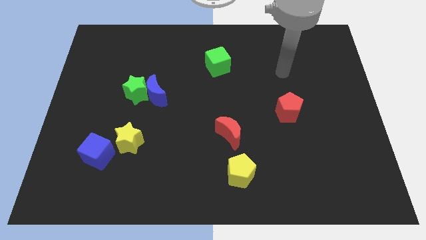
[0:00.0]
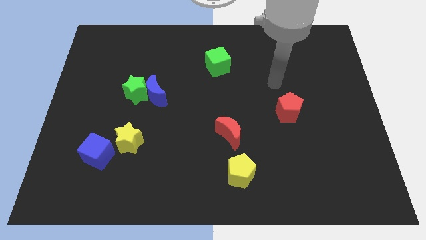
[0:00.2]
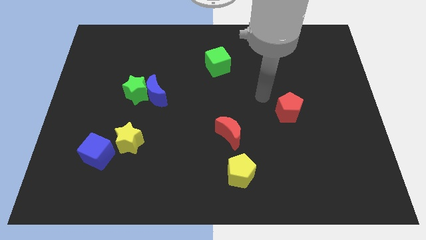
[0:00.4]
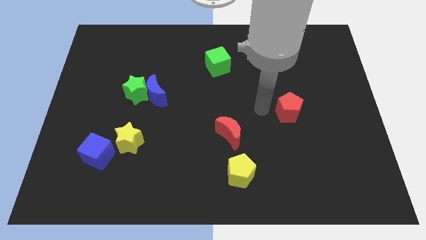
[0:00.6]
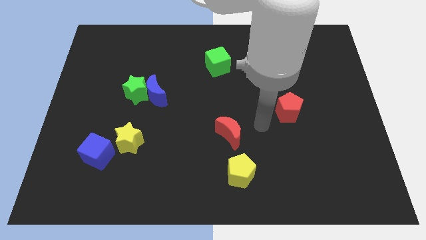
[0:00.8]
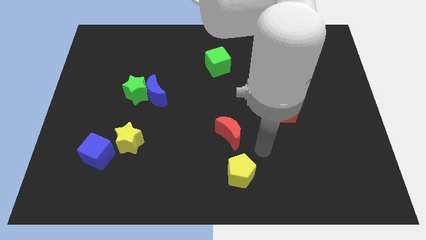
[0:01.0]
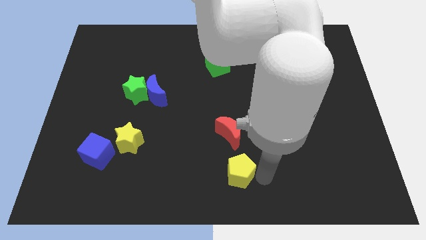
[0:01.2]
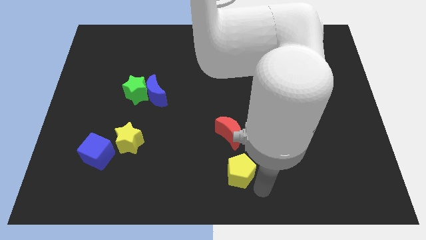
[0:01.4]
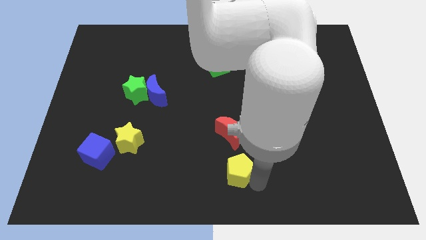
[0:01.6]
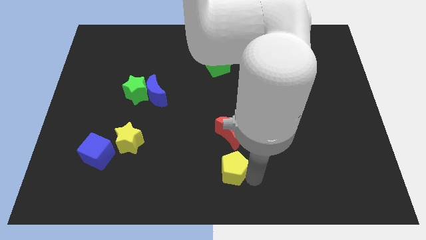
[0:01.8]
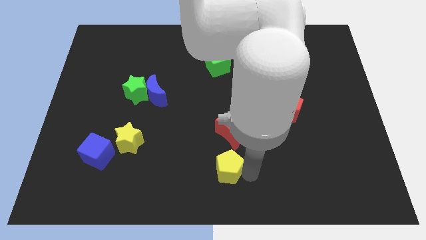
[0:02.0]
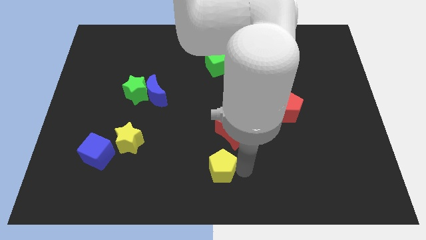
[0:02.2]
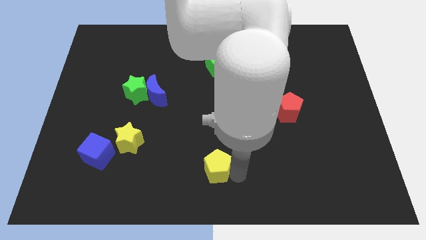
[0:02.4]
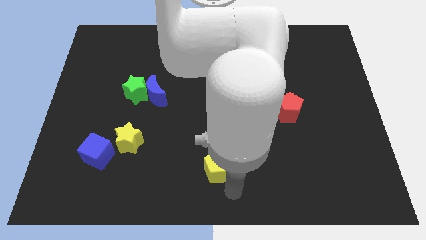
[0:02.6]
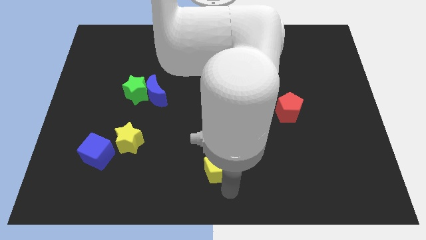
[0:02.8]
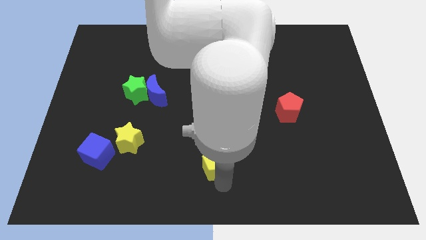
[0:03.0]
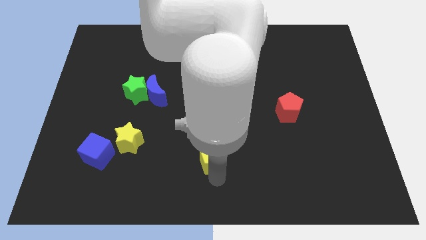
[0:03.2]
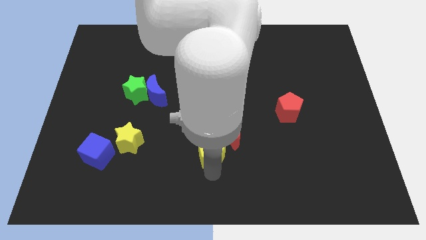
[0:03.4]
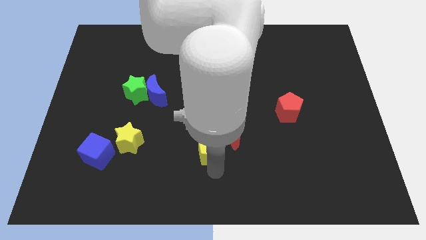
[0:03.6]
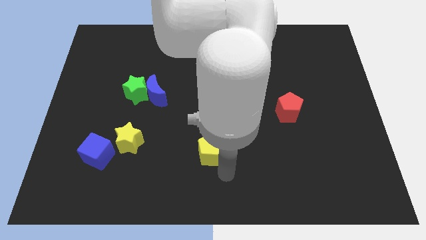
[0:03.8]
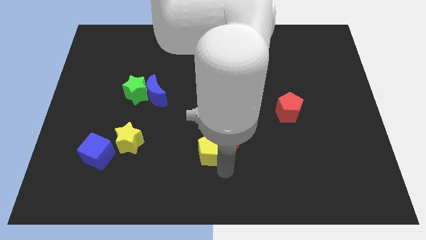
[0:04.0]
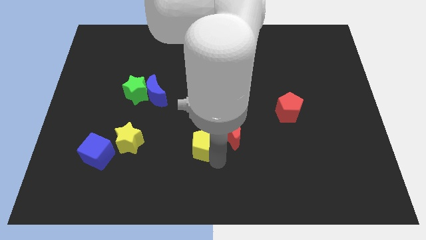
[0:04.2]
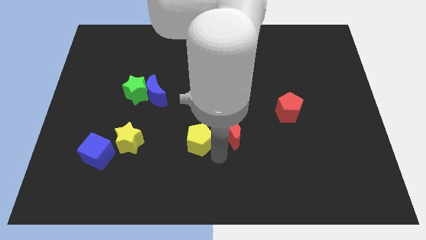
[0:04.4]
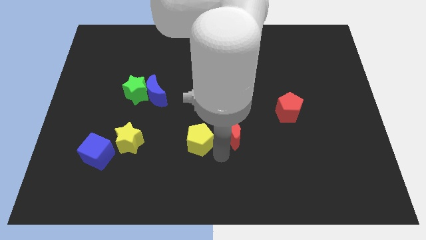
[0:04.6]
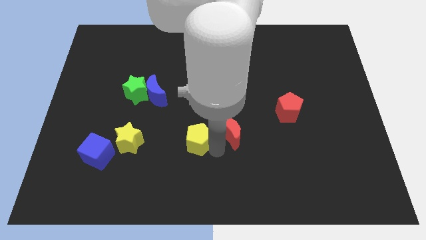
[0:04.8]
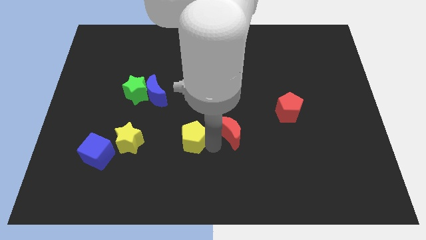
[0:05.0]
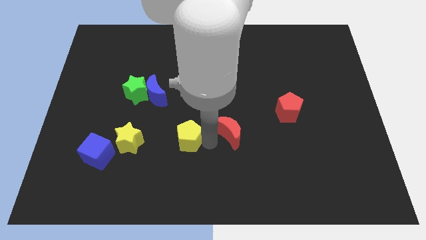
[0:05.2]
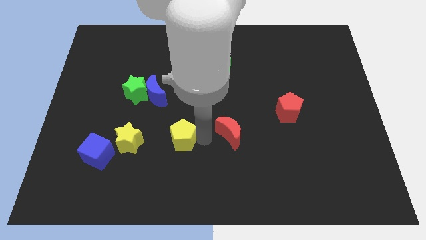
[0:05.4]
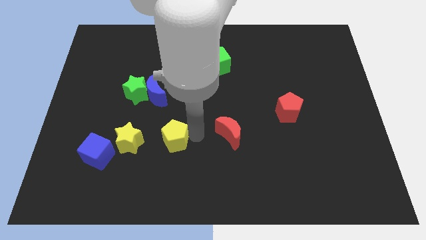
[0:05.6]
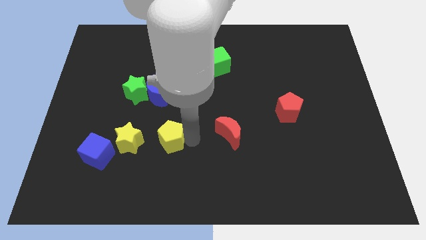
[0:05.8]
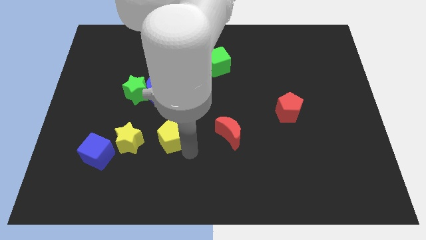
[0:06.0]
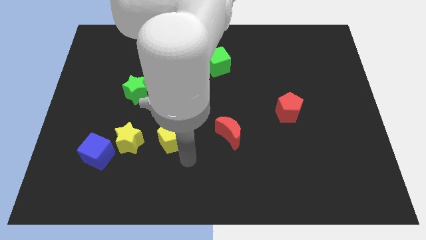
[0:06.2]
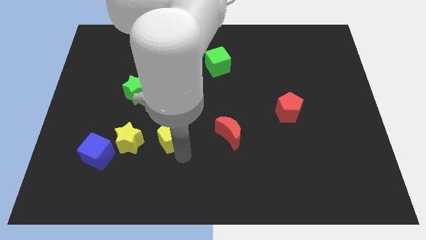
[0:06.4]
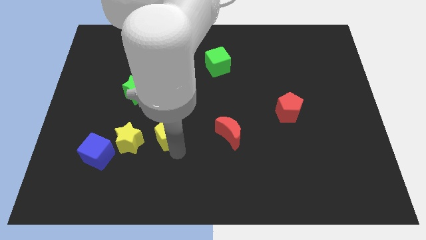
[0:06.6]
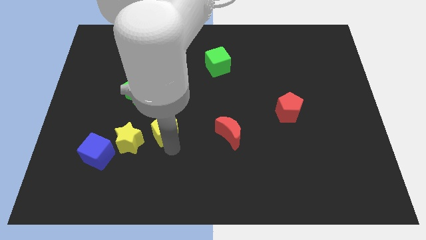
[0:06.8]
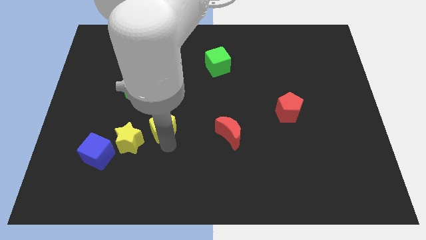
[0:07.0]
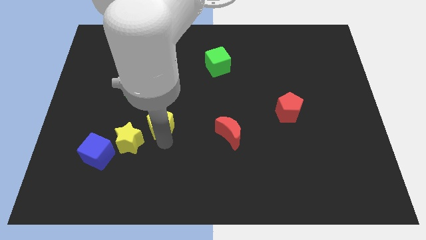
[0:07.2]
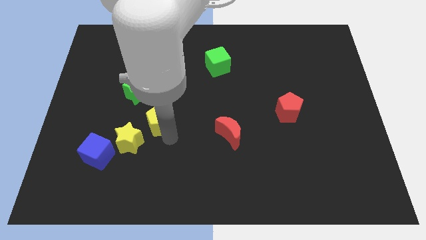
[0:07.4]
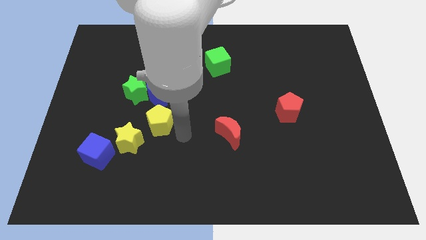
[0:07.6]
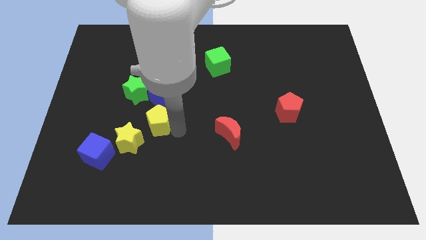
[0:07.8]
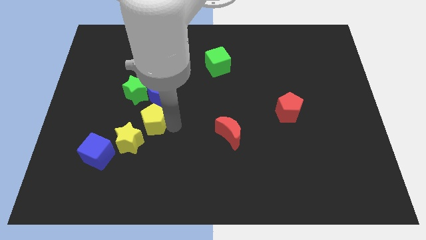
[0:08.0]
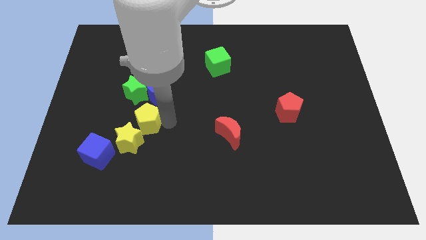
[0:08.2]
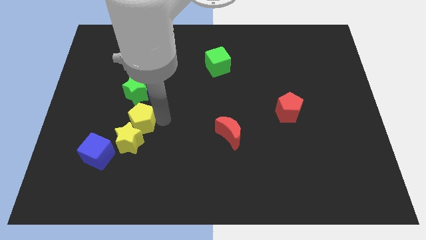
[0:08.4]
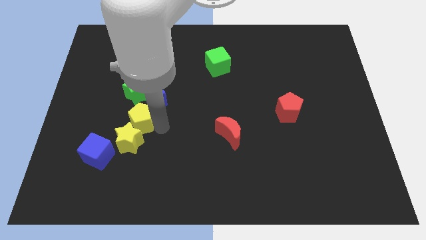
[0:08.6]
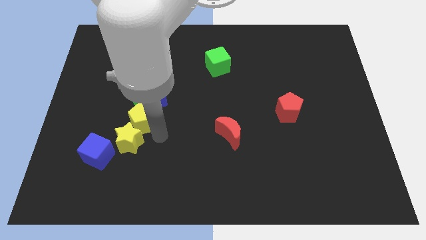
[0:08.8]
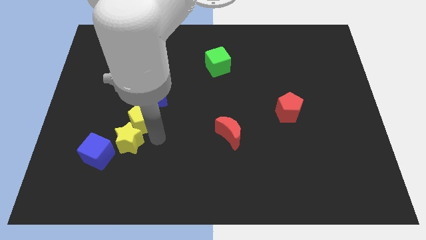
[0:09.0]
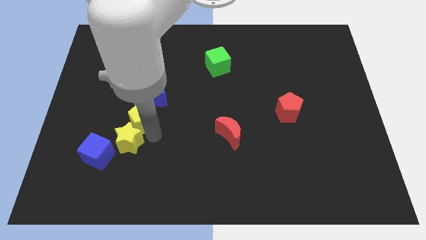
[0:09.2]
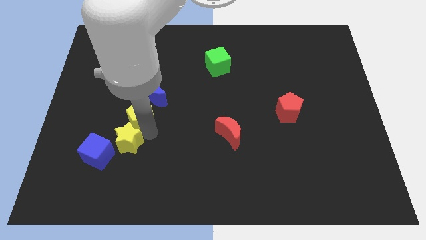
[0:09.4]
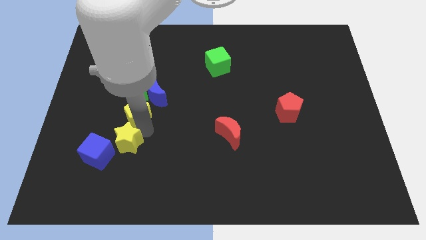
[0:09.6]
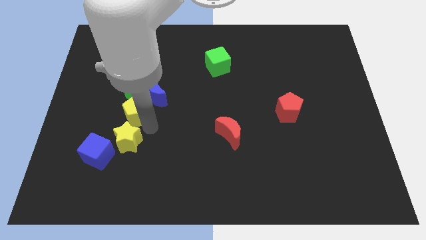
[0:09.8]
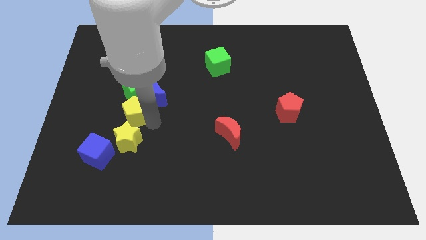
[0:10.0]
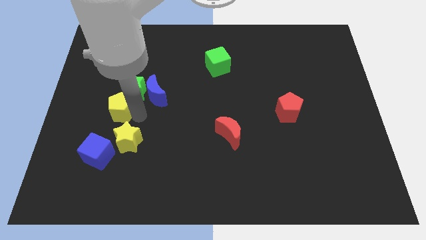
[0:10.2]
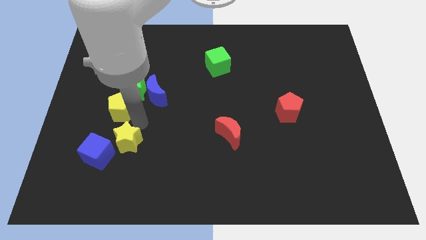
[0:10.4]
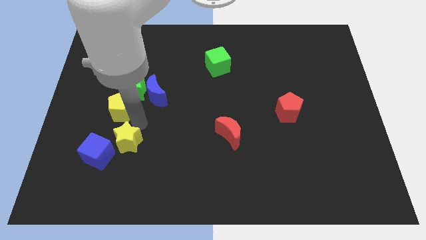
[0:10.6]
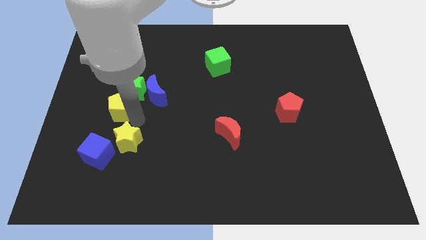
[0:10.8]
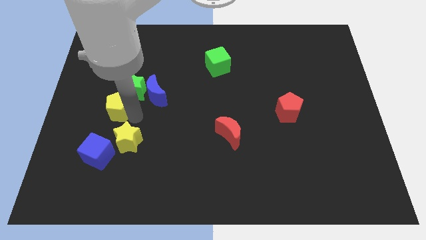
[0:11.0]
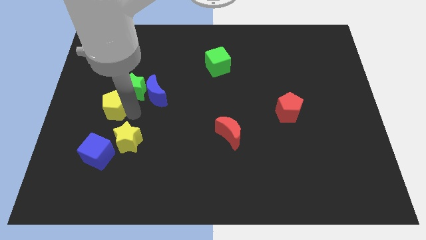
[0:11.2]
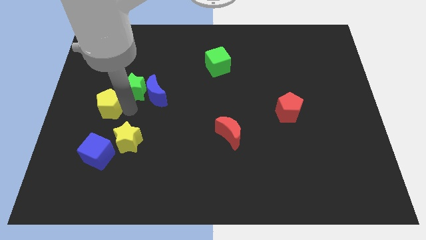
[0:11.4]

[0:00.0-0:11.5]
put the yellow pentagon to the left side of the green star

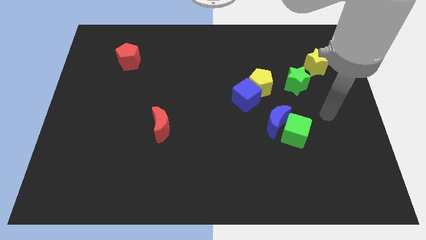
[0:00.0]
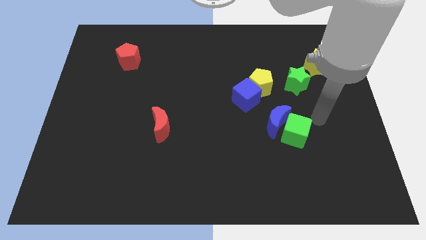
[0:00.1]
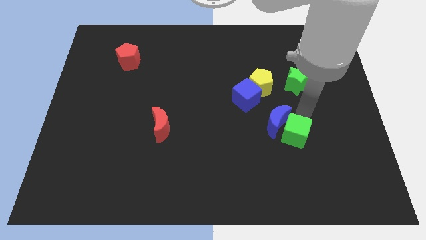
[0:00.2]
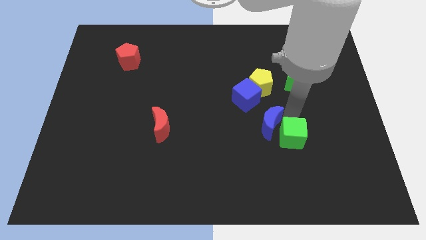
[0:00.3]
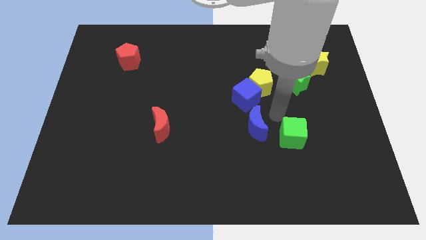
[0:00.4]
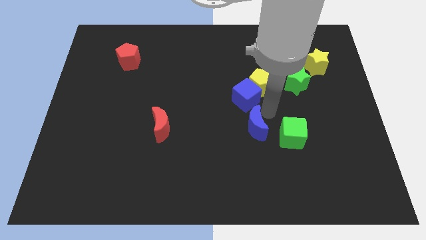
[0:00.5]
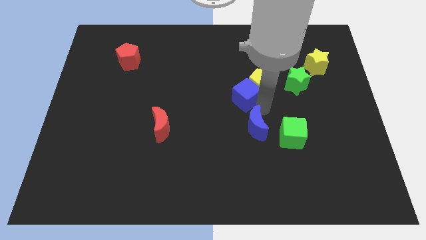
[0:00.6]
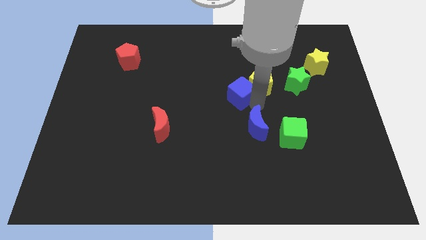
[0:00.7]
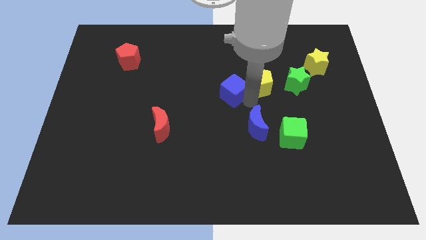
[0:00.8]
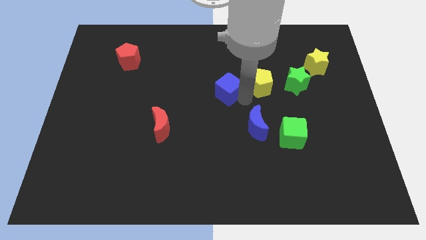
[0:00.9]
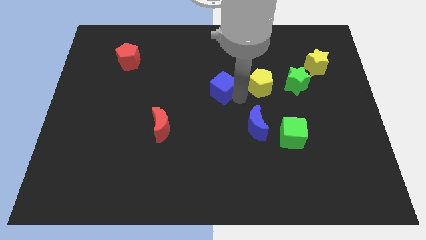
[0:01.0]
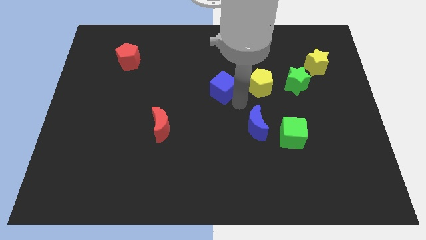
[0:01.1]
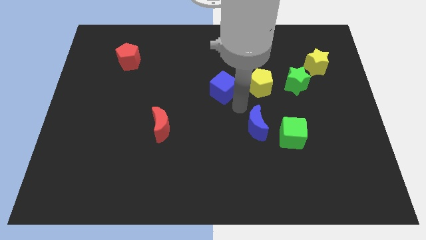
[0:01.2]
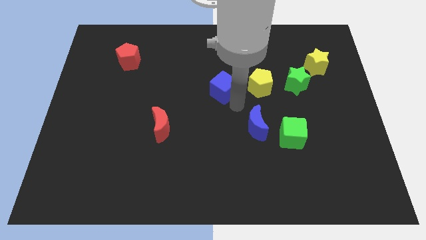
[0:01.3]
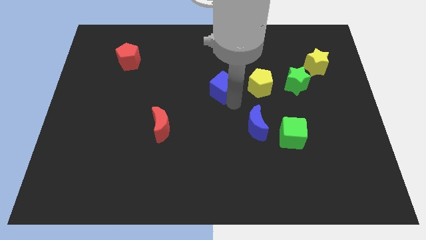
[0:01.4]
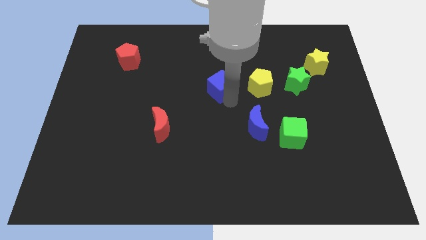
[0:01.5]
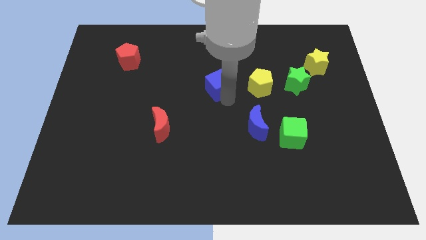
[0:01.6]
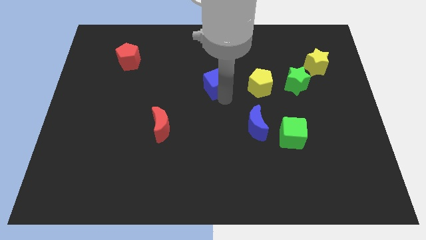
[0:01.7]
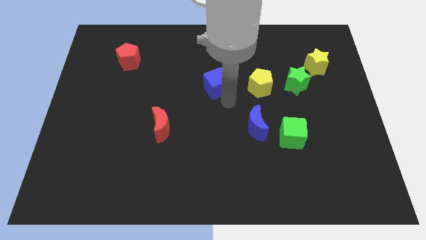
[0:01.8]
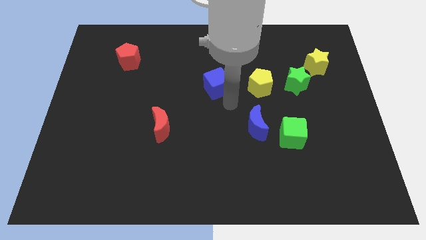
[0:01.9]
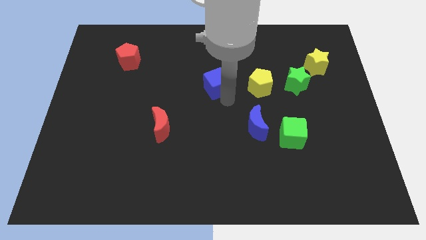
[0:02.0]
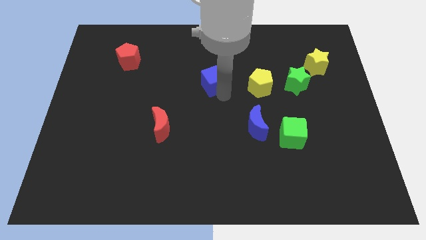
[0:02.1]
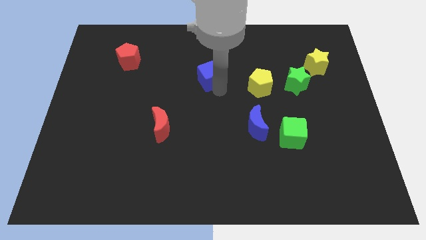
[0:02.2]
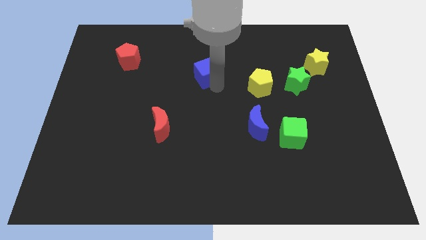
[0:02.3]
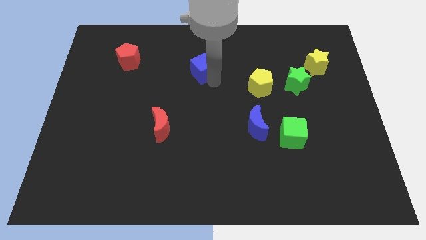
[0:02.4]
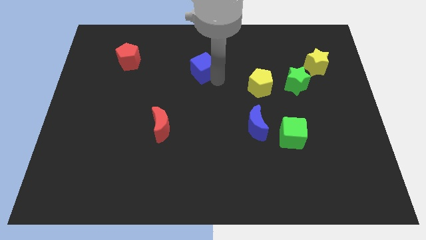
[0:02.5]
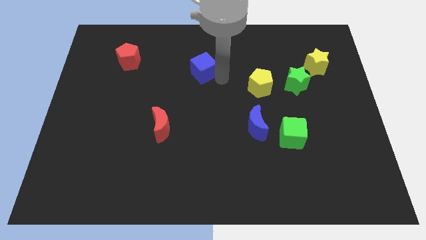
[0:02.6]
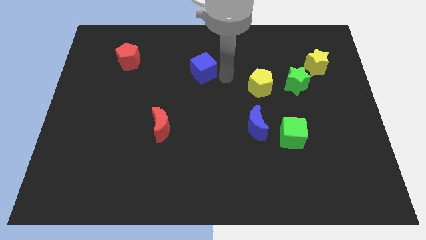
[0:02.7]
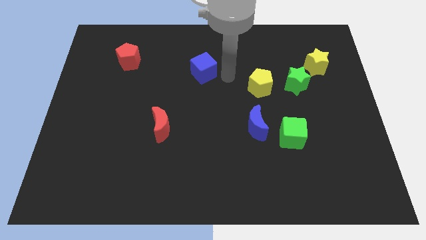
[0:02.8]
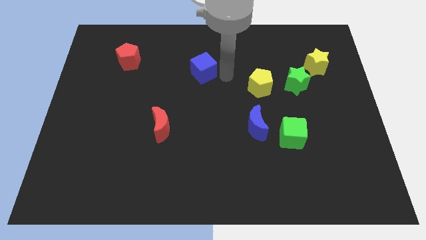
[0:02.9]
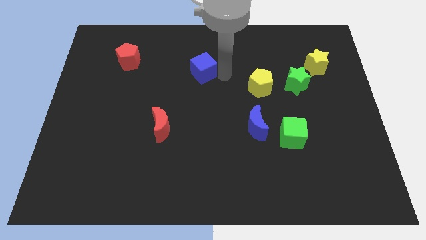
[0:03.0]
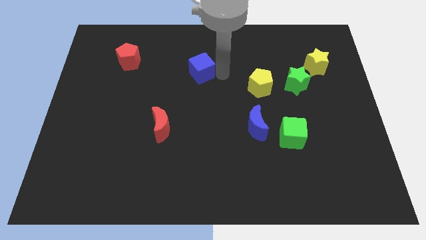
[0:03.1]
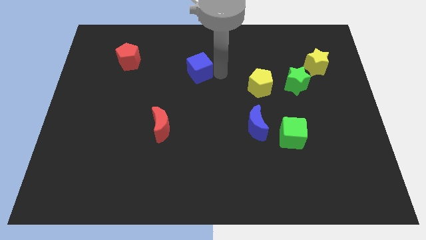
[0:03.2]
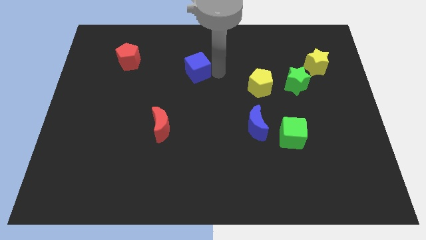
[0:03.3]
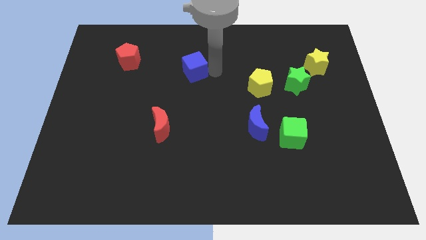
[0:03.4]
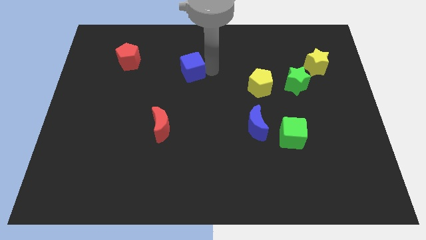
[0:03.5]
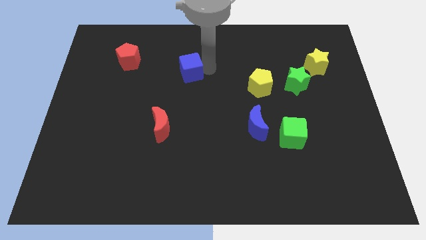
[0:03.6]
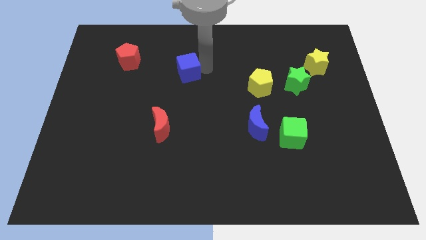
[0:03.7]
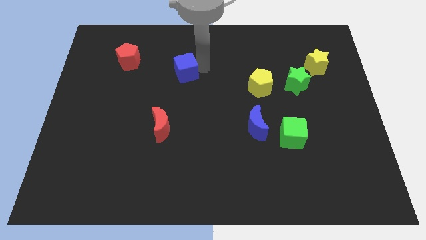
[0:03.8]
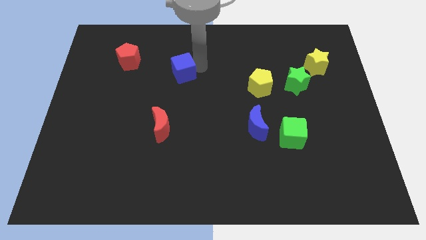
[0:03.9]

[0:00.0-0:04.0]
push the blue cube to the right side of the red pentagon
